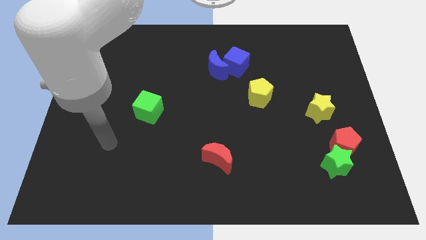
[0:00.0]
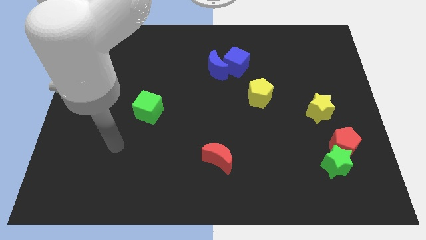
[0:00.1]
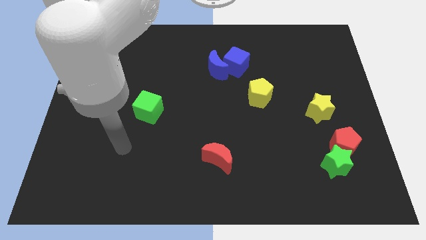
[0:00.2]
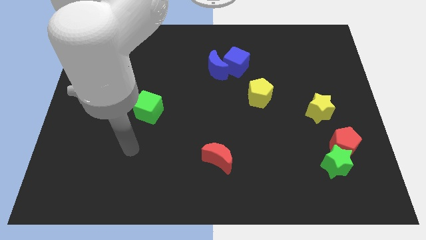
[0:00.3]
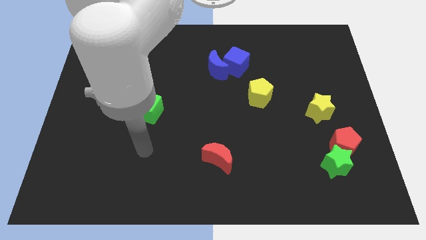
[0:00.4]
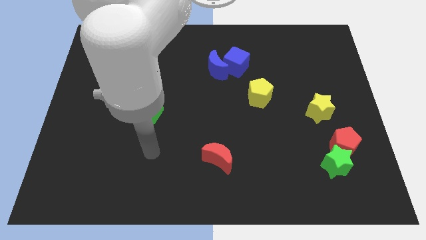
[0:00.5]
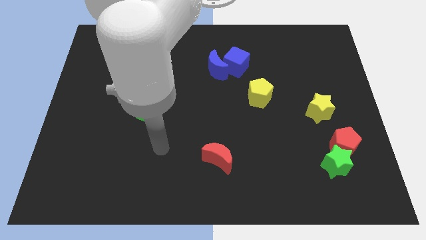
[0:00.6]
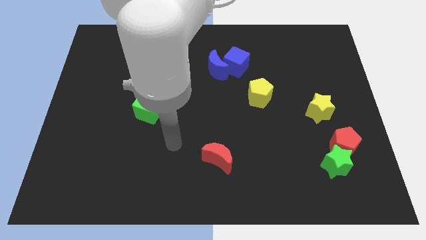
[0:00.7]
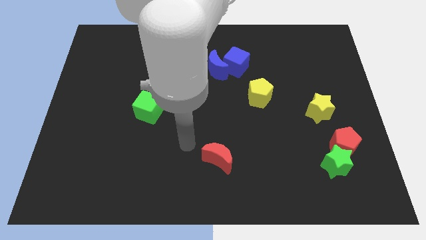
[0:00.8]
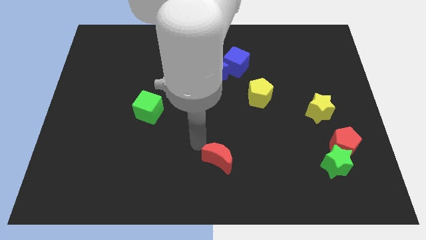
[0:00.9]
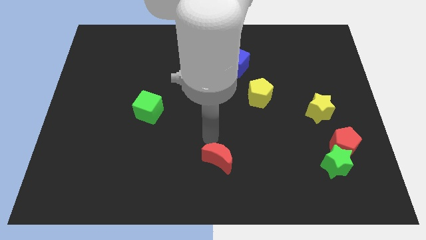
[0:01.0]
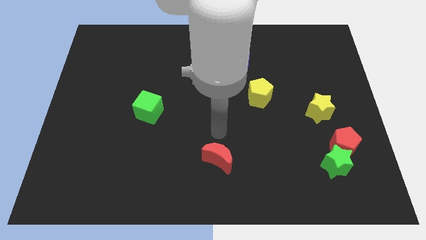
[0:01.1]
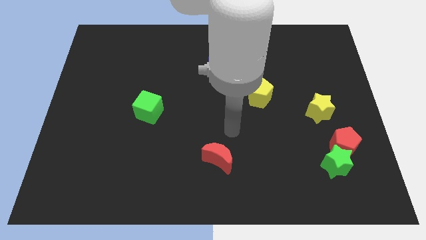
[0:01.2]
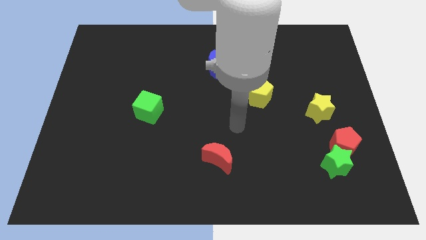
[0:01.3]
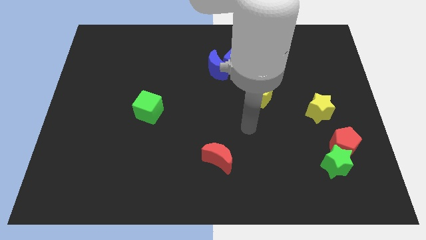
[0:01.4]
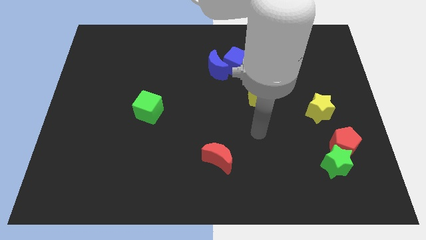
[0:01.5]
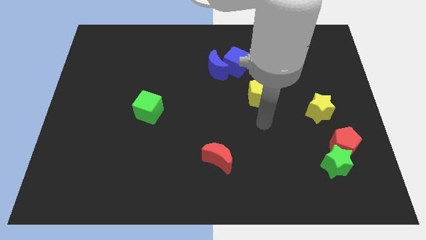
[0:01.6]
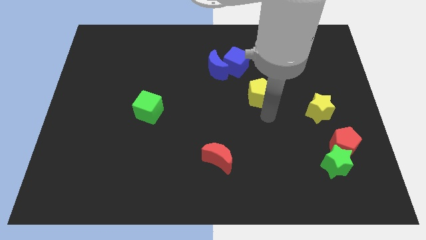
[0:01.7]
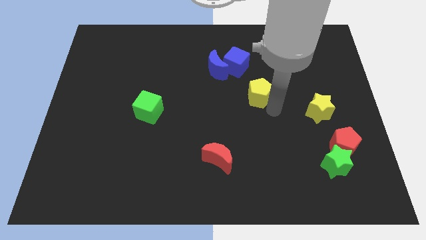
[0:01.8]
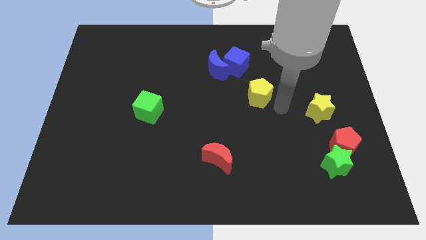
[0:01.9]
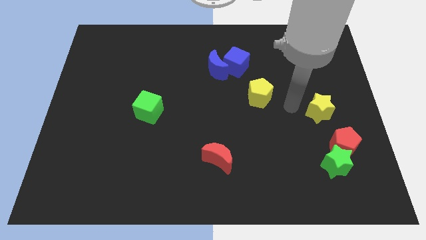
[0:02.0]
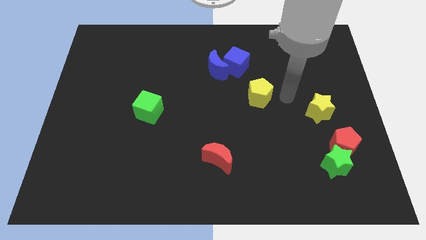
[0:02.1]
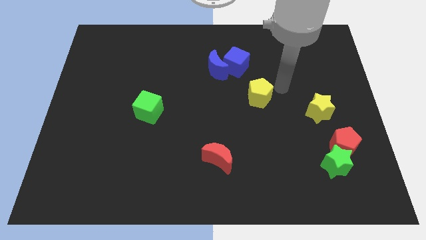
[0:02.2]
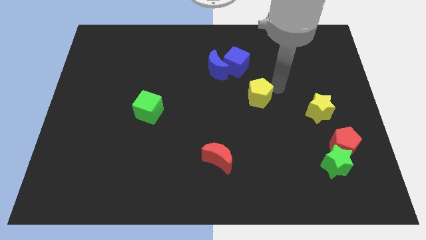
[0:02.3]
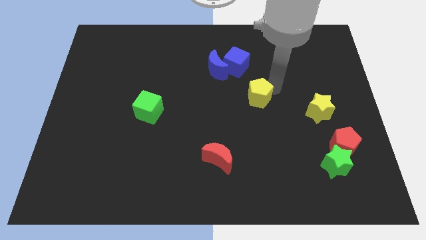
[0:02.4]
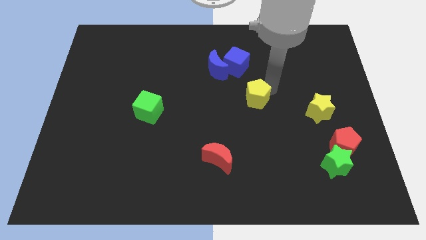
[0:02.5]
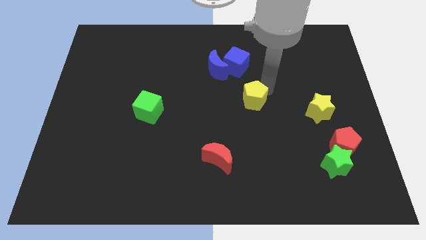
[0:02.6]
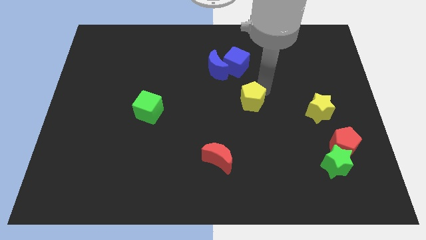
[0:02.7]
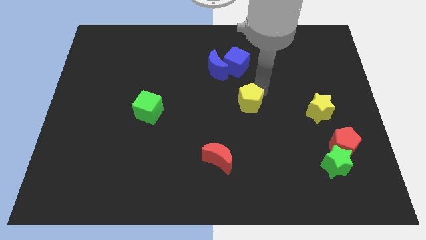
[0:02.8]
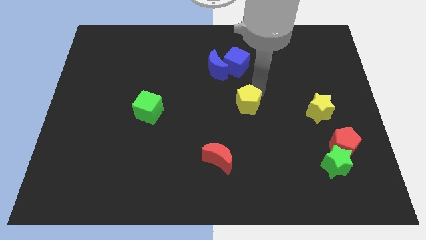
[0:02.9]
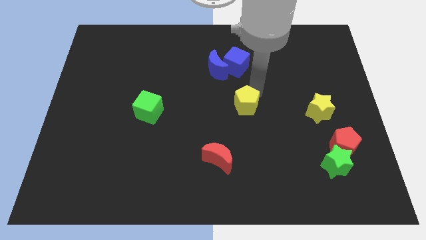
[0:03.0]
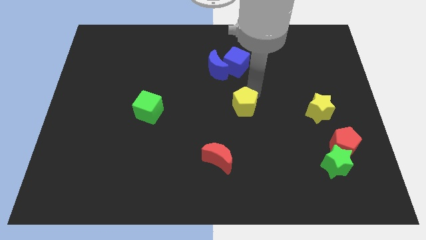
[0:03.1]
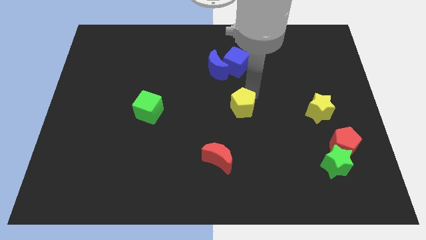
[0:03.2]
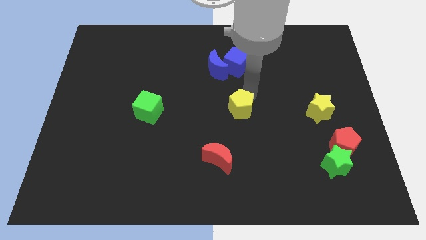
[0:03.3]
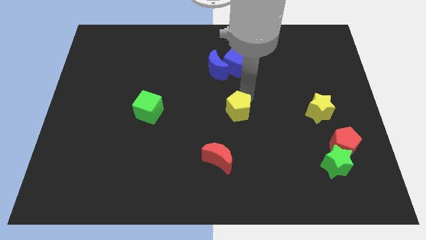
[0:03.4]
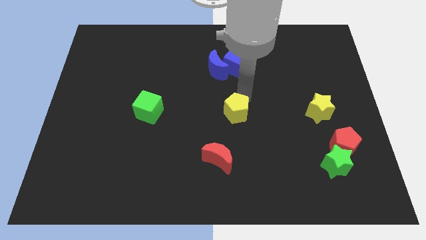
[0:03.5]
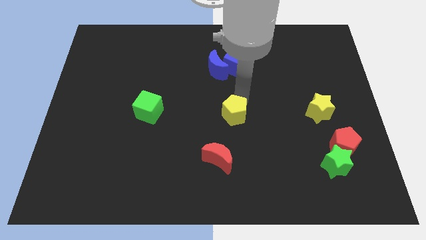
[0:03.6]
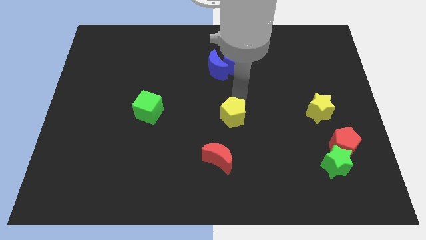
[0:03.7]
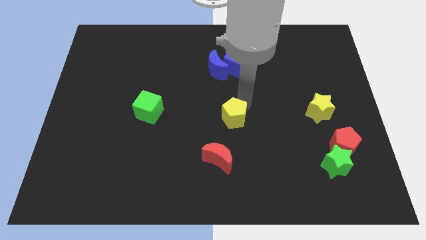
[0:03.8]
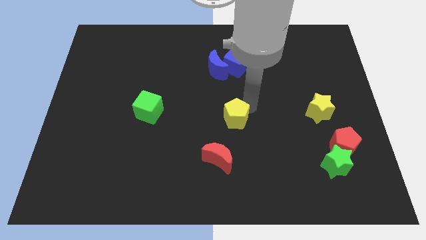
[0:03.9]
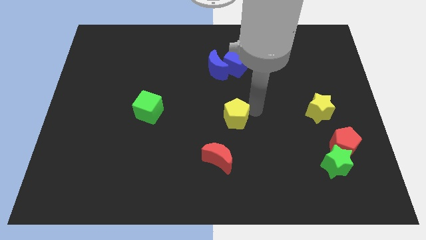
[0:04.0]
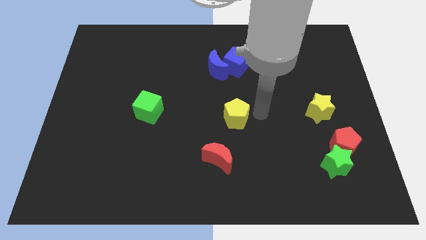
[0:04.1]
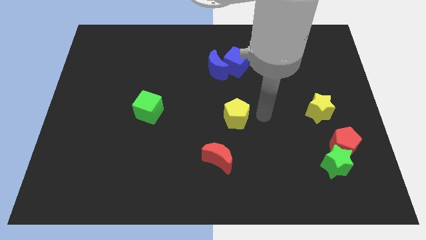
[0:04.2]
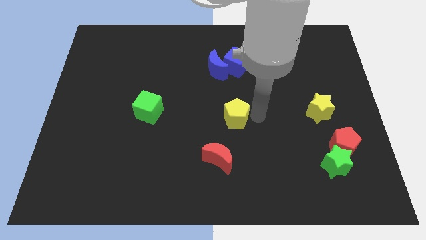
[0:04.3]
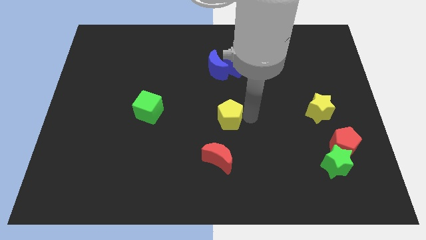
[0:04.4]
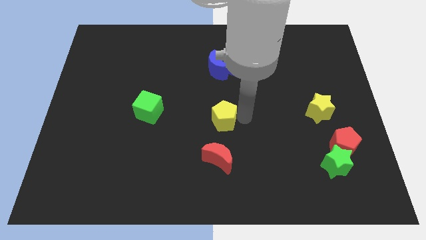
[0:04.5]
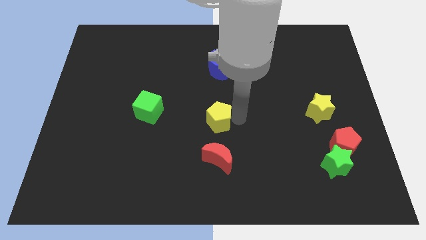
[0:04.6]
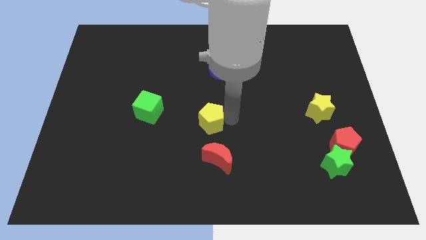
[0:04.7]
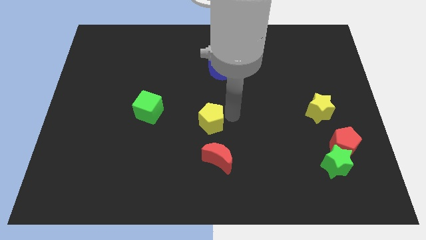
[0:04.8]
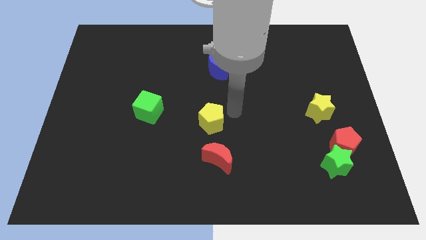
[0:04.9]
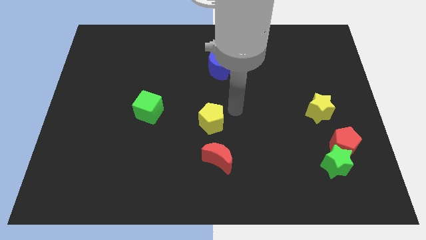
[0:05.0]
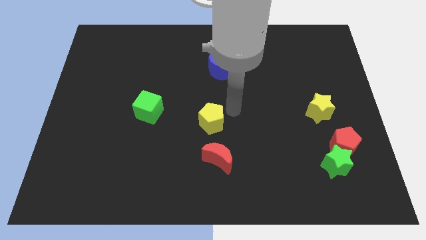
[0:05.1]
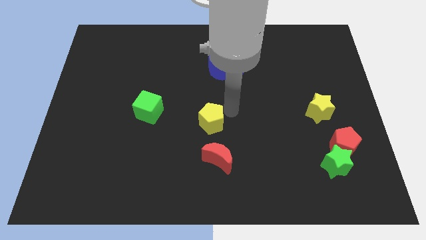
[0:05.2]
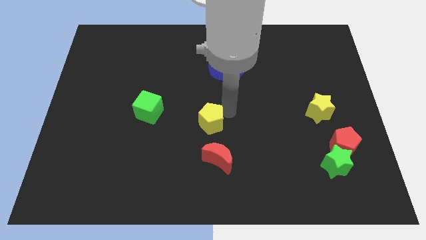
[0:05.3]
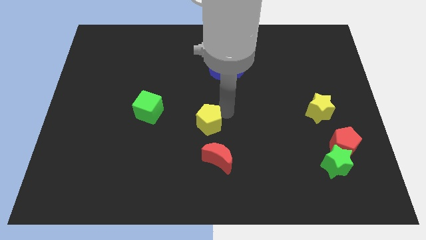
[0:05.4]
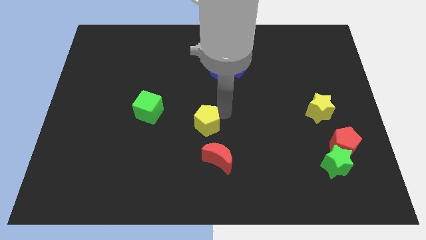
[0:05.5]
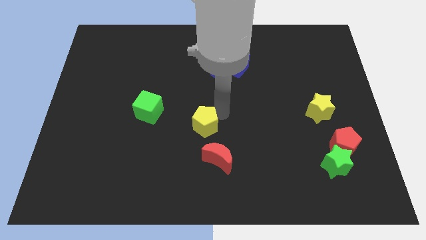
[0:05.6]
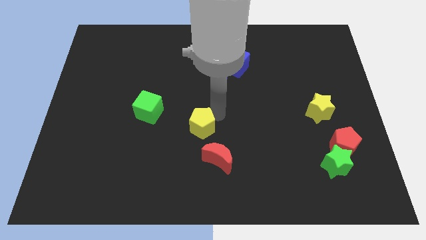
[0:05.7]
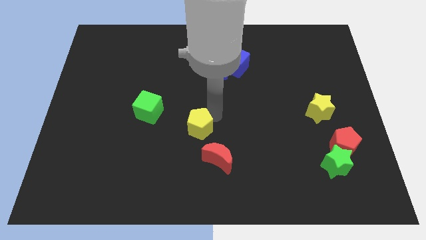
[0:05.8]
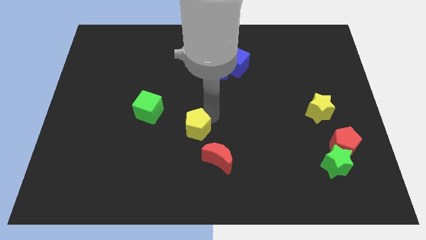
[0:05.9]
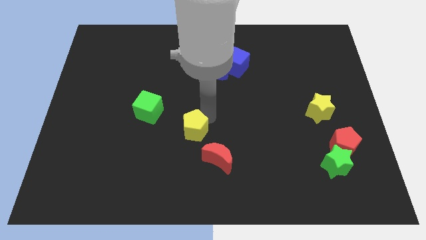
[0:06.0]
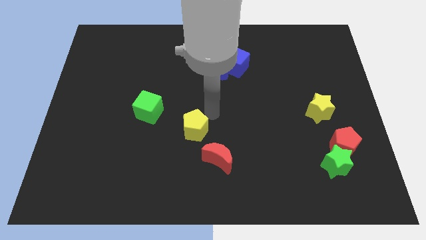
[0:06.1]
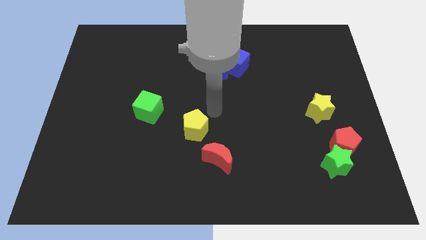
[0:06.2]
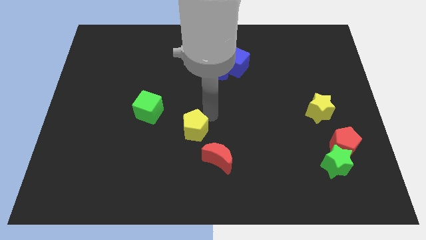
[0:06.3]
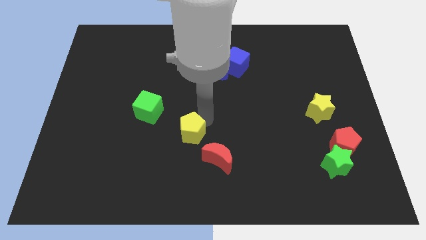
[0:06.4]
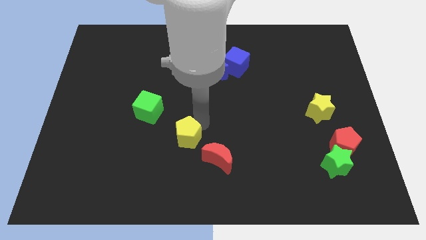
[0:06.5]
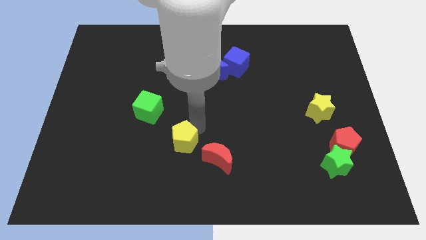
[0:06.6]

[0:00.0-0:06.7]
slide the yellow pentagon downwards and to the left diagonally

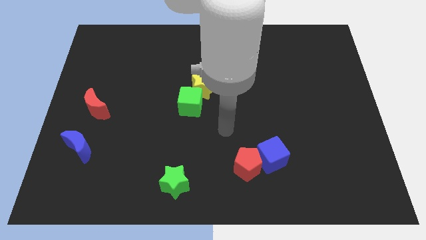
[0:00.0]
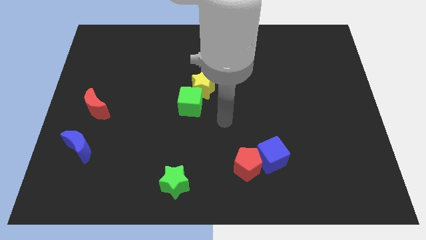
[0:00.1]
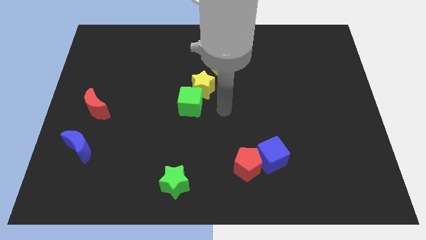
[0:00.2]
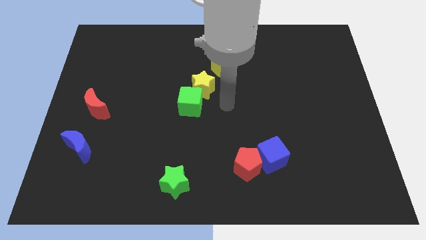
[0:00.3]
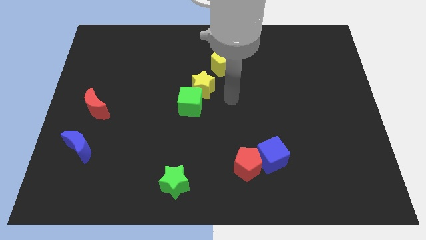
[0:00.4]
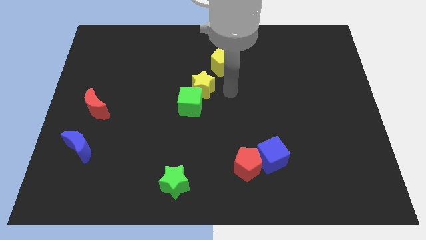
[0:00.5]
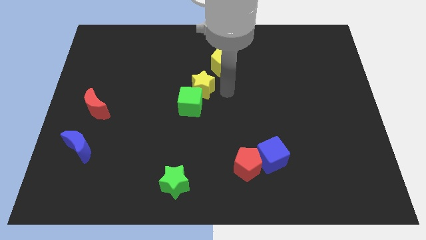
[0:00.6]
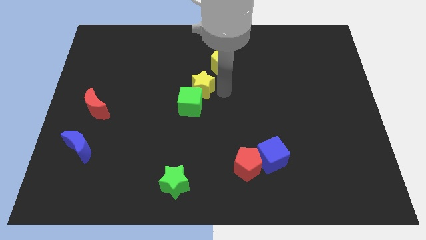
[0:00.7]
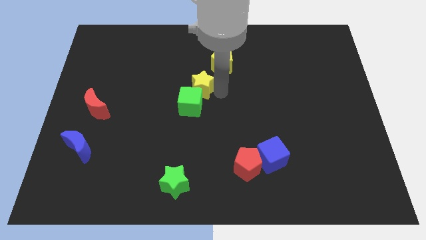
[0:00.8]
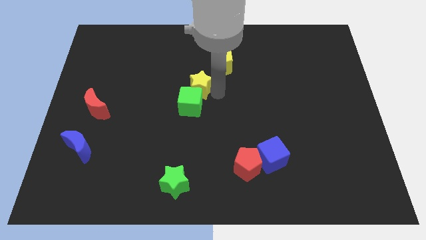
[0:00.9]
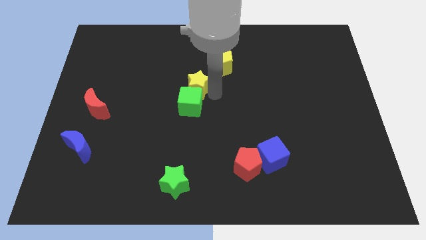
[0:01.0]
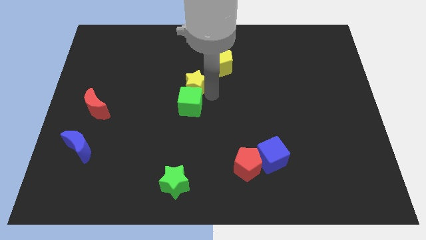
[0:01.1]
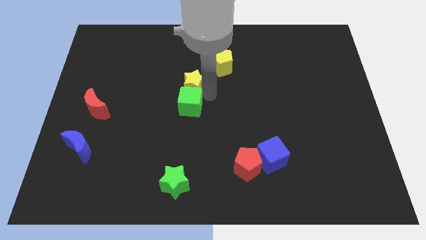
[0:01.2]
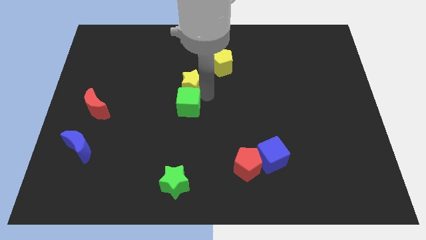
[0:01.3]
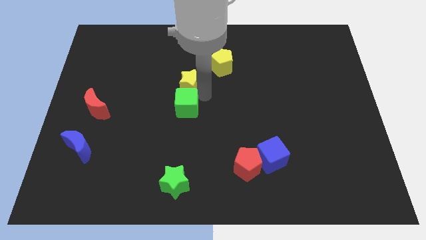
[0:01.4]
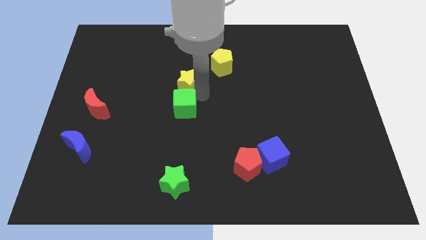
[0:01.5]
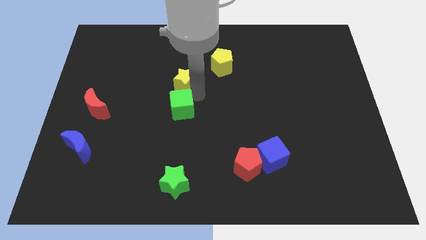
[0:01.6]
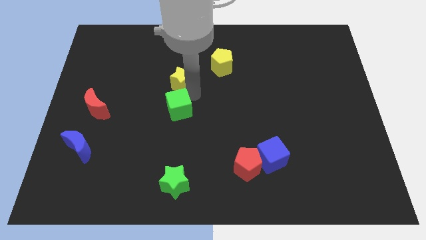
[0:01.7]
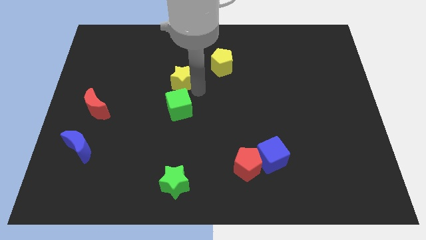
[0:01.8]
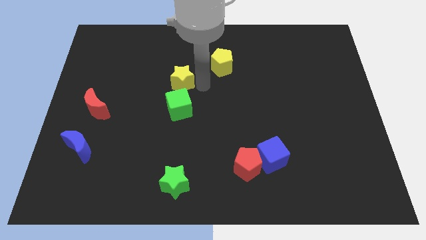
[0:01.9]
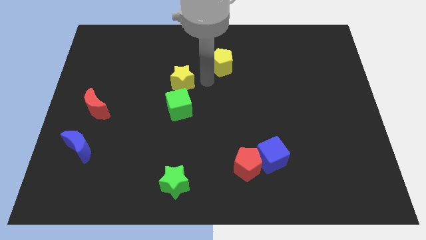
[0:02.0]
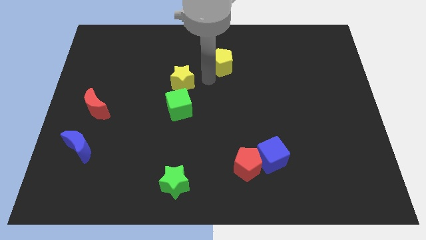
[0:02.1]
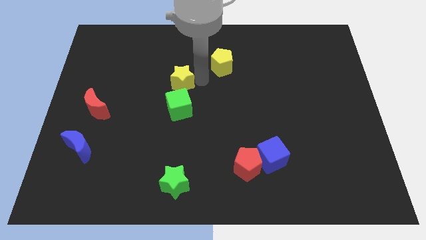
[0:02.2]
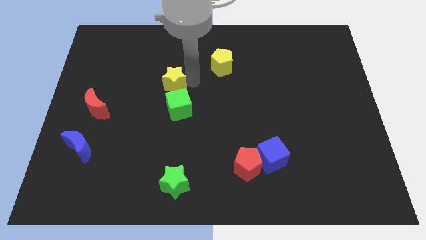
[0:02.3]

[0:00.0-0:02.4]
push the yellow star slightly to the left
